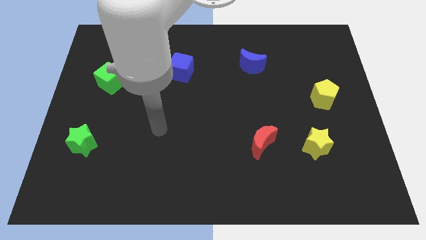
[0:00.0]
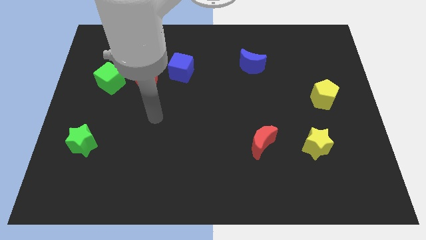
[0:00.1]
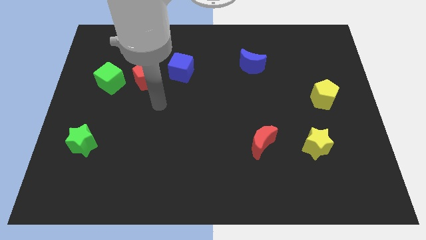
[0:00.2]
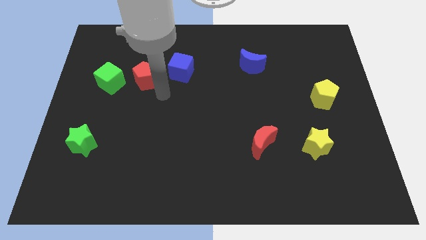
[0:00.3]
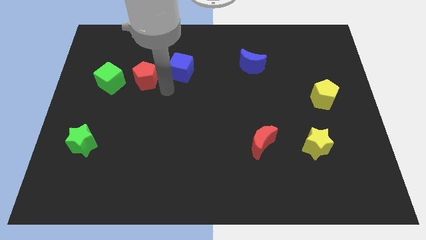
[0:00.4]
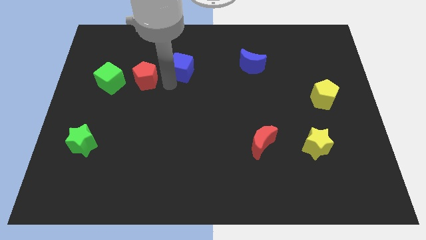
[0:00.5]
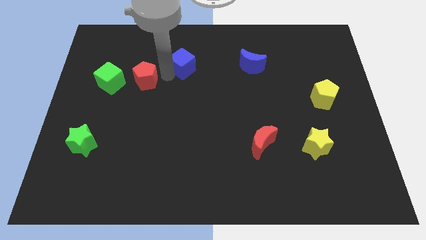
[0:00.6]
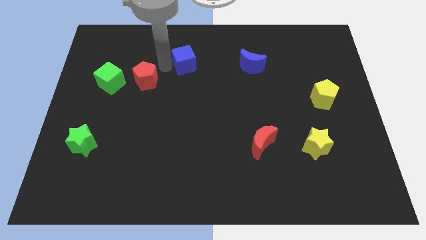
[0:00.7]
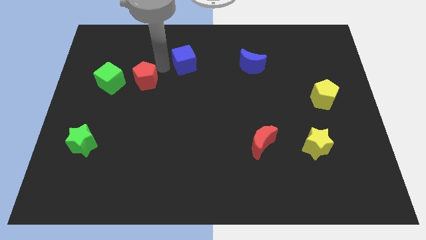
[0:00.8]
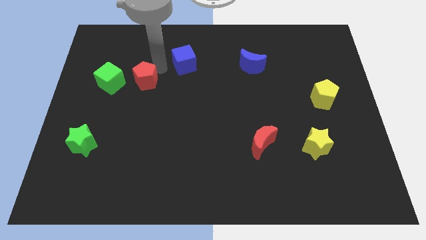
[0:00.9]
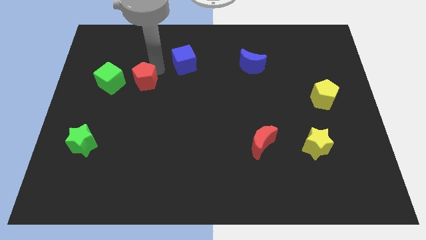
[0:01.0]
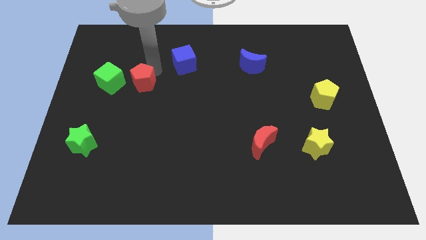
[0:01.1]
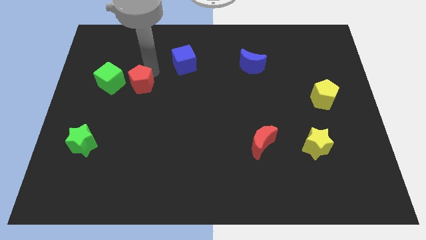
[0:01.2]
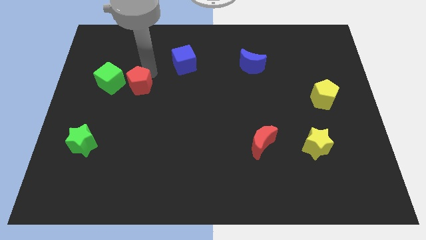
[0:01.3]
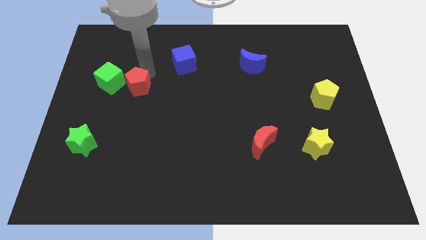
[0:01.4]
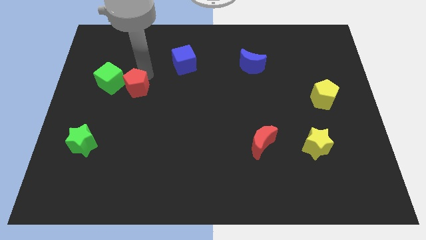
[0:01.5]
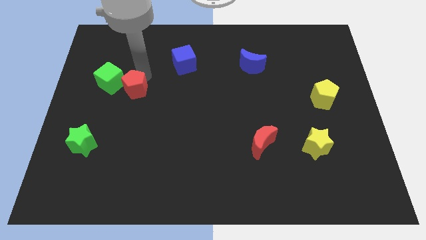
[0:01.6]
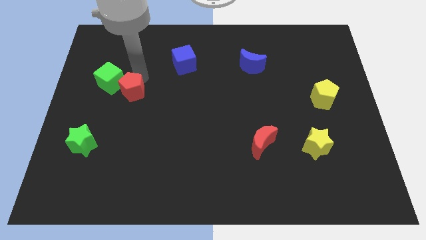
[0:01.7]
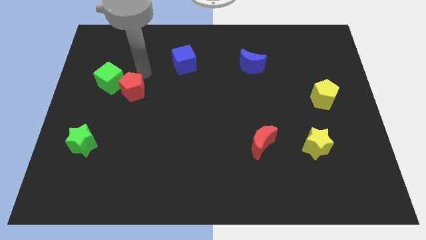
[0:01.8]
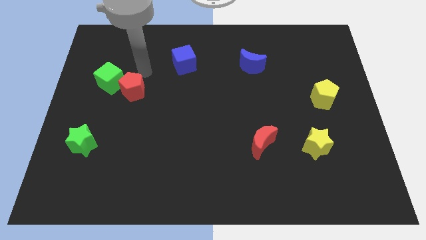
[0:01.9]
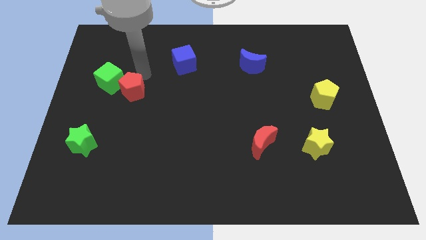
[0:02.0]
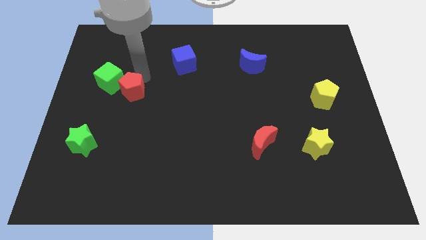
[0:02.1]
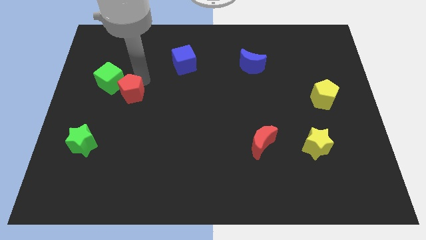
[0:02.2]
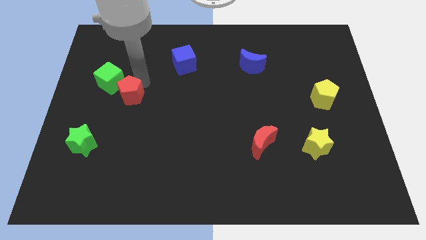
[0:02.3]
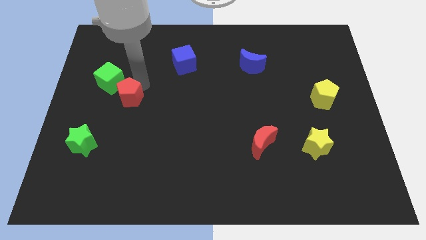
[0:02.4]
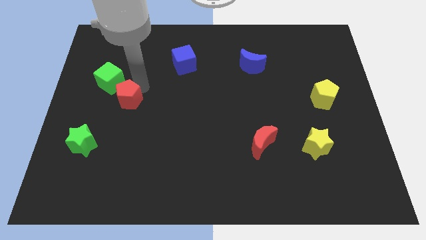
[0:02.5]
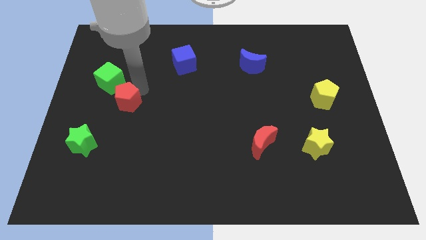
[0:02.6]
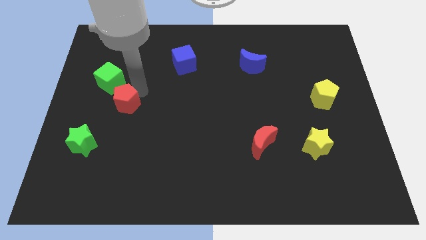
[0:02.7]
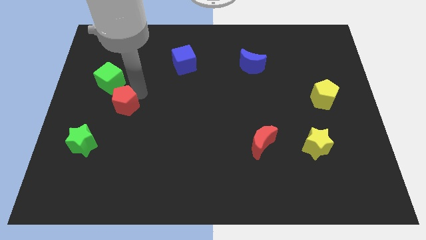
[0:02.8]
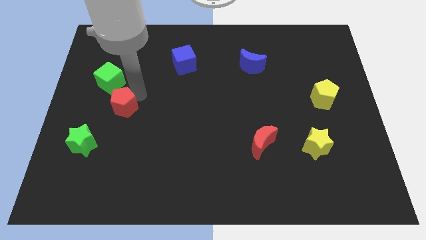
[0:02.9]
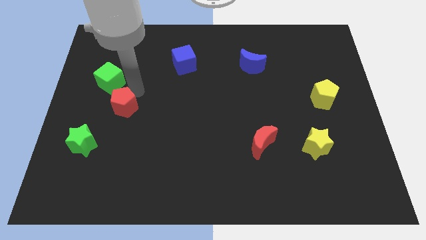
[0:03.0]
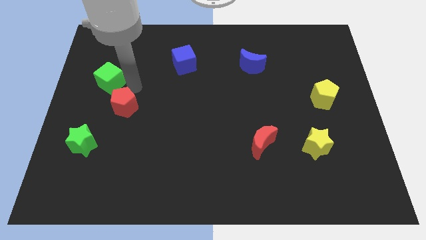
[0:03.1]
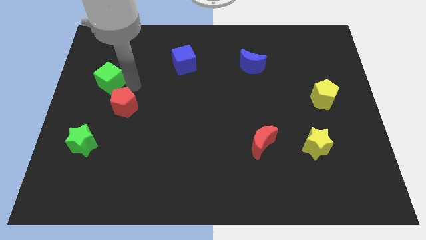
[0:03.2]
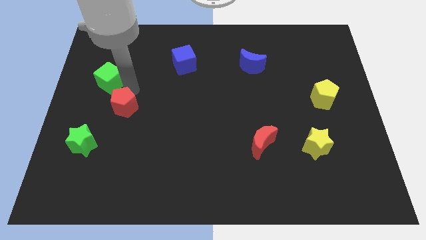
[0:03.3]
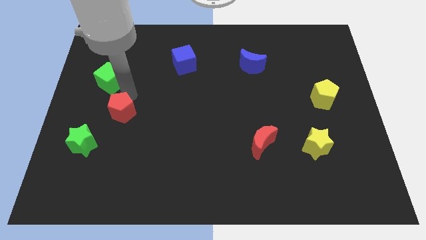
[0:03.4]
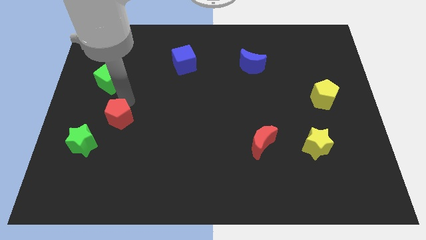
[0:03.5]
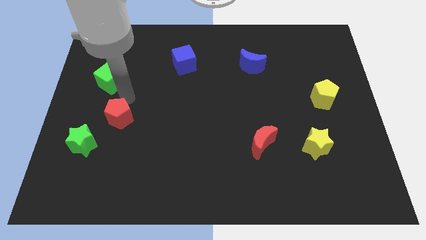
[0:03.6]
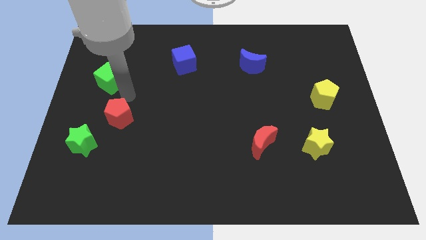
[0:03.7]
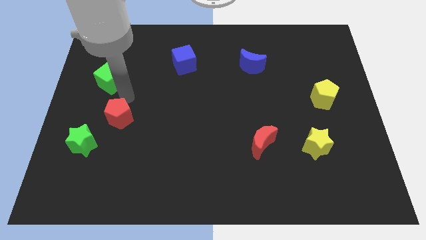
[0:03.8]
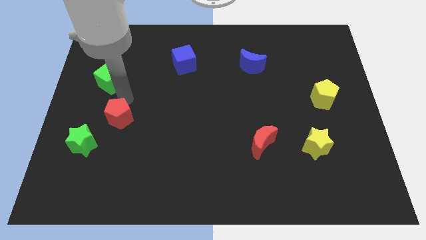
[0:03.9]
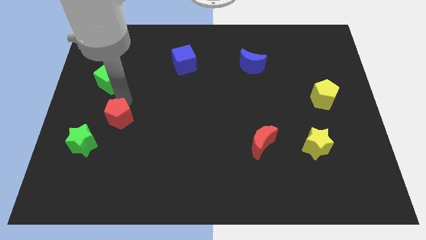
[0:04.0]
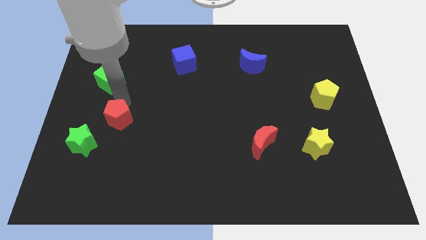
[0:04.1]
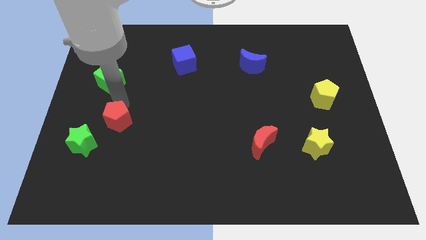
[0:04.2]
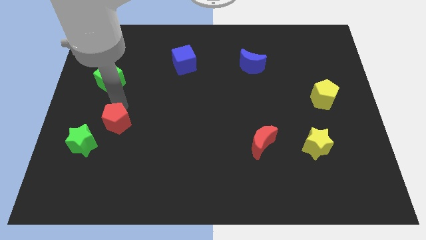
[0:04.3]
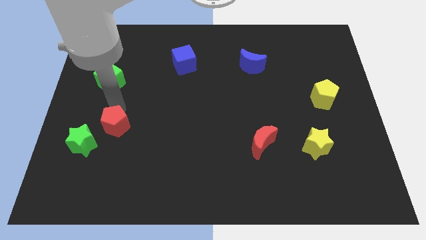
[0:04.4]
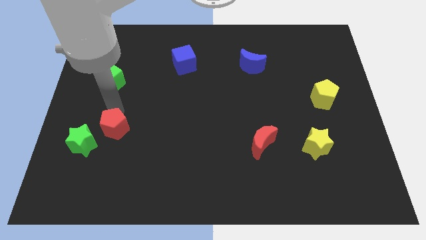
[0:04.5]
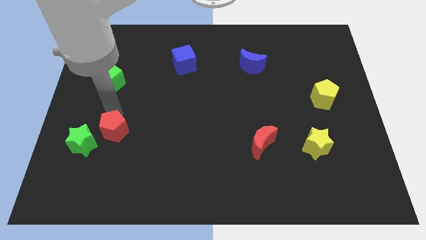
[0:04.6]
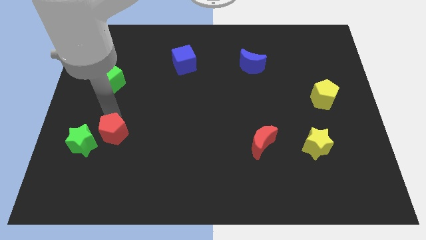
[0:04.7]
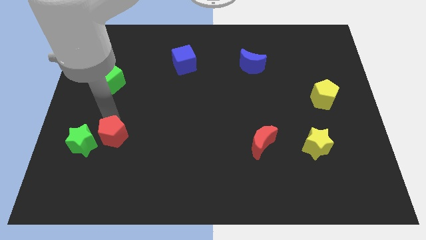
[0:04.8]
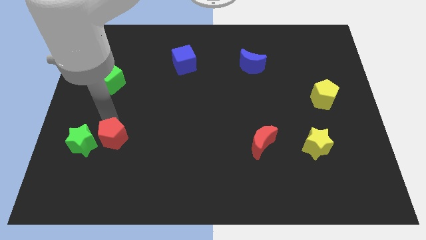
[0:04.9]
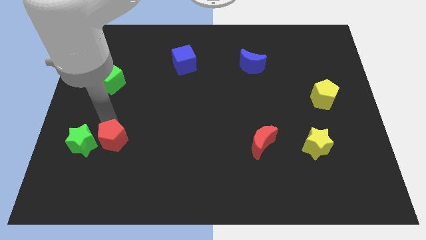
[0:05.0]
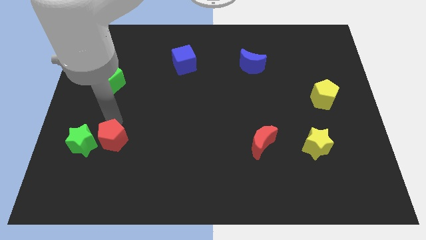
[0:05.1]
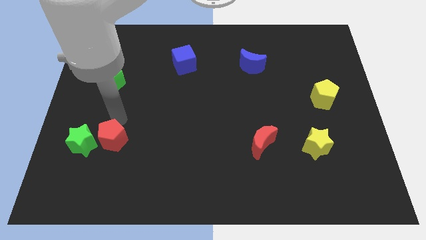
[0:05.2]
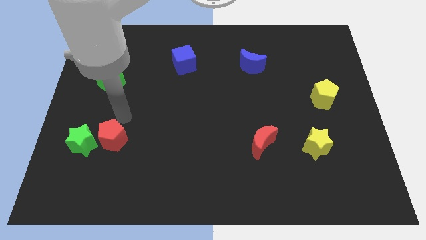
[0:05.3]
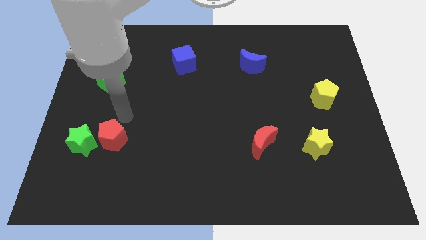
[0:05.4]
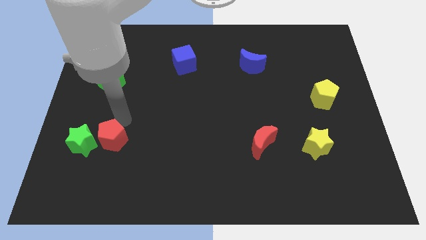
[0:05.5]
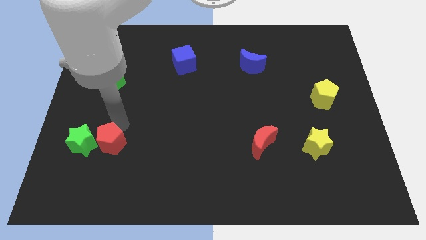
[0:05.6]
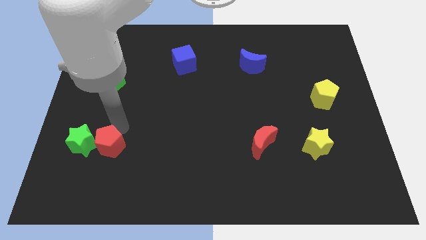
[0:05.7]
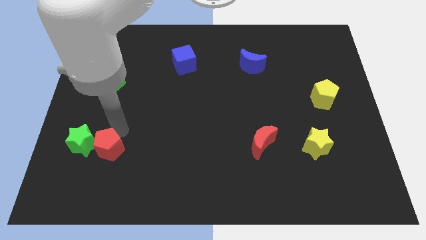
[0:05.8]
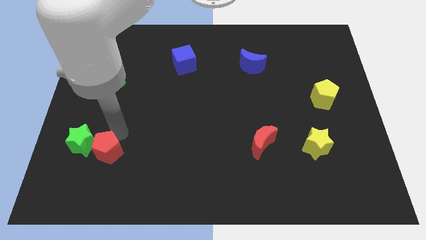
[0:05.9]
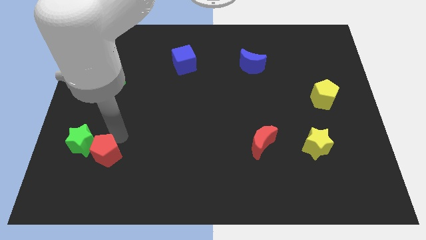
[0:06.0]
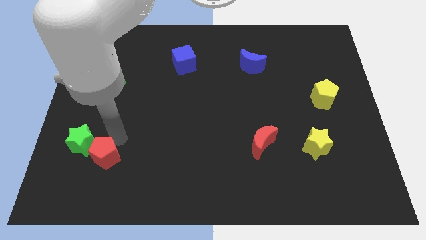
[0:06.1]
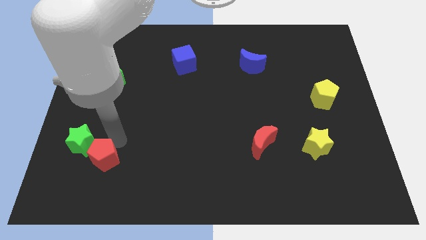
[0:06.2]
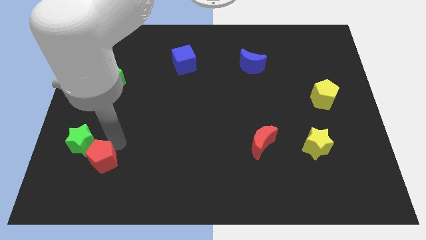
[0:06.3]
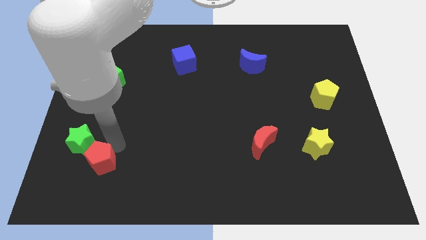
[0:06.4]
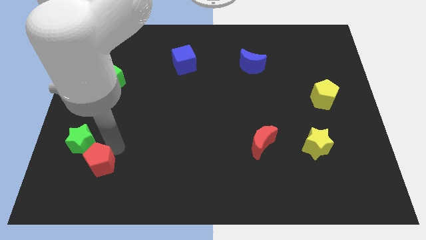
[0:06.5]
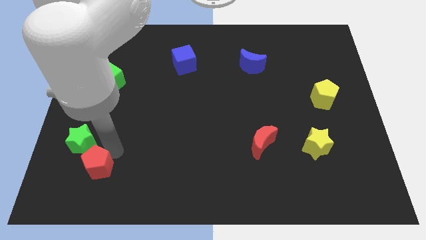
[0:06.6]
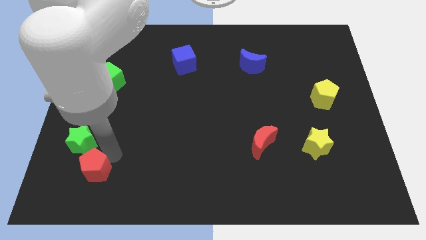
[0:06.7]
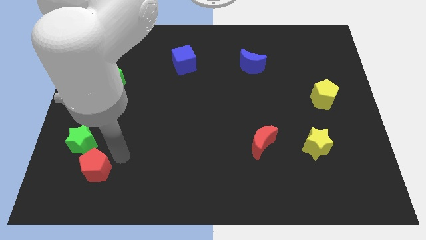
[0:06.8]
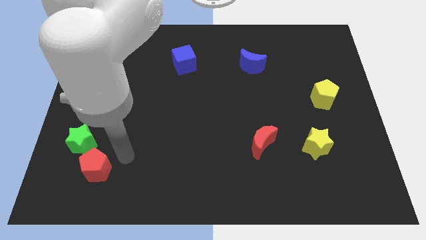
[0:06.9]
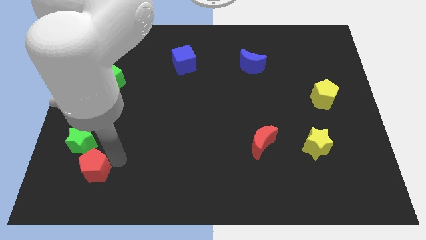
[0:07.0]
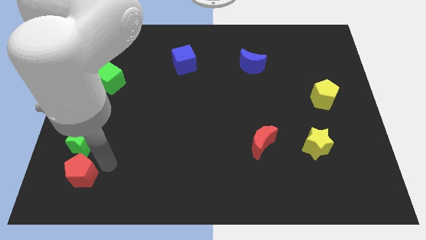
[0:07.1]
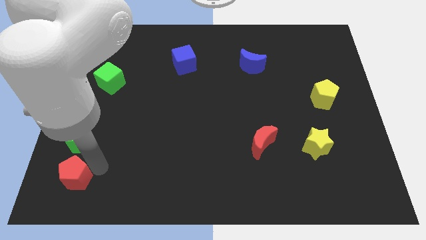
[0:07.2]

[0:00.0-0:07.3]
move the red pentagon to the bottom left
